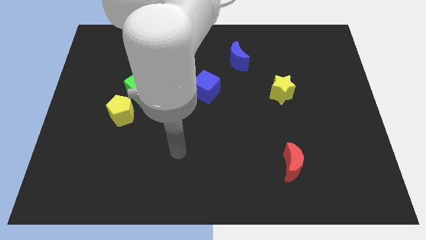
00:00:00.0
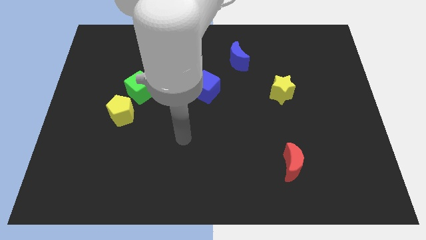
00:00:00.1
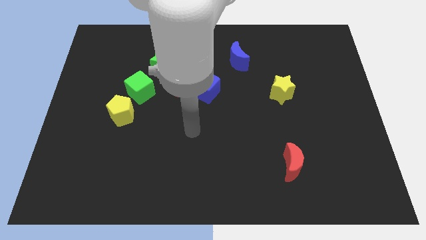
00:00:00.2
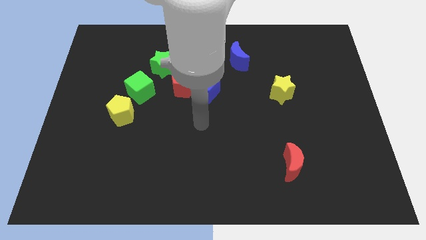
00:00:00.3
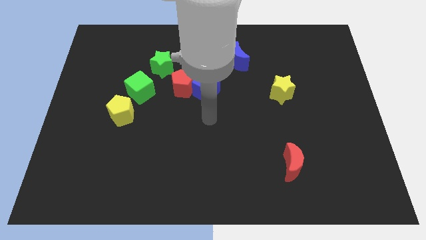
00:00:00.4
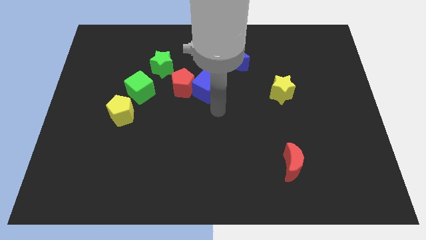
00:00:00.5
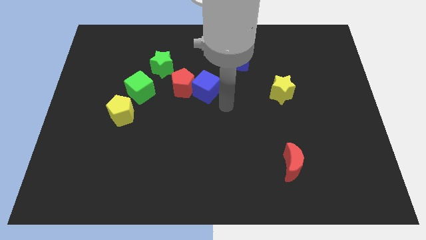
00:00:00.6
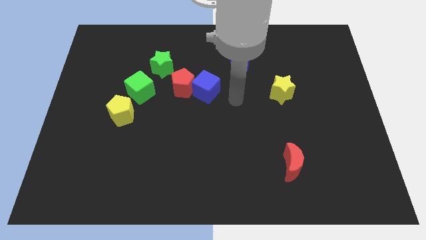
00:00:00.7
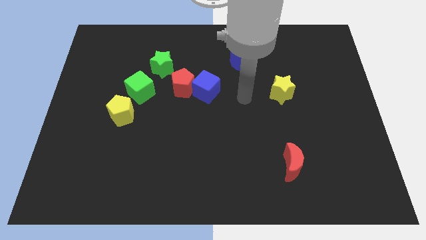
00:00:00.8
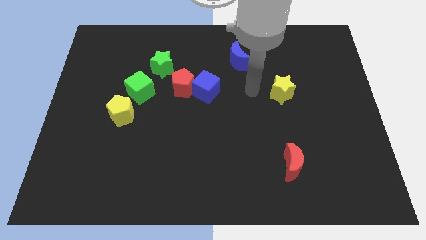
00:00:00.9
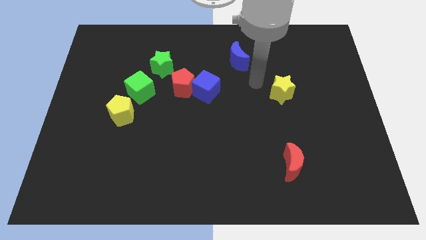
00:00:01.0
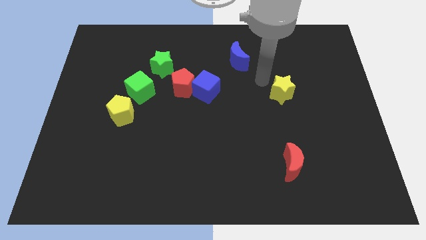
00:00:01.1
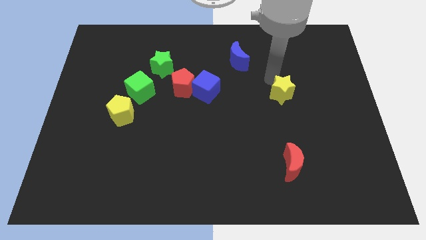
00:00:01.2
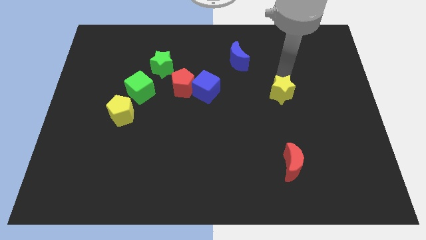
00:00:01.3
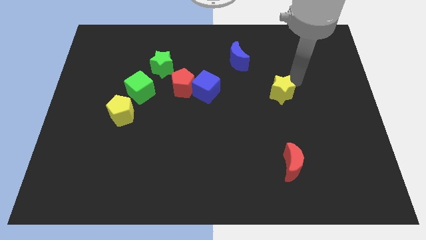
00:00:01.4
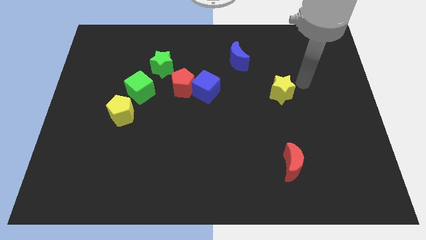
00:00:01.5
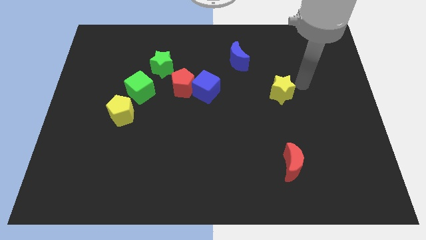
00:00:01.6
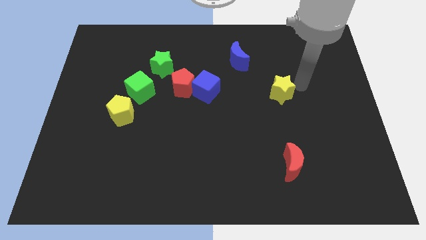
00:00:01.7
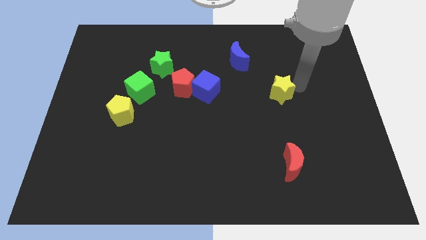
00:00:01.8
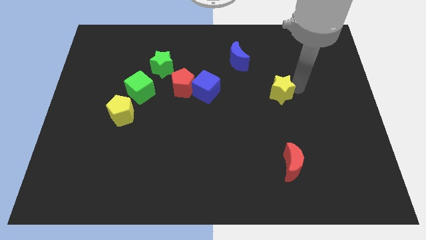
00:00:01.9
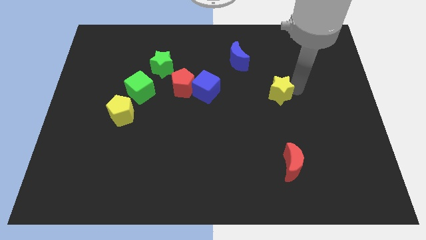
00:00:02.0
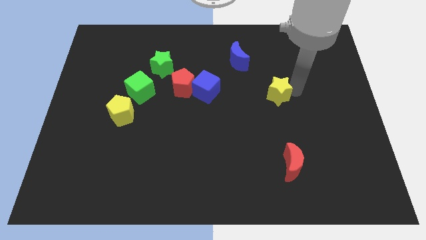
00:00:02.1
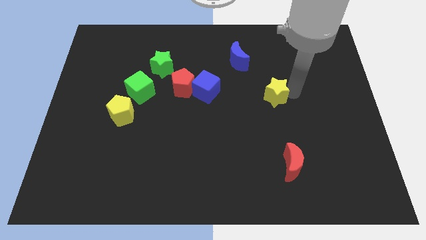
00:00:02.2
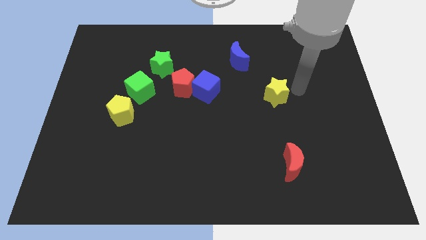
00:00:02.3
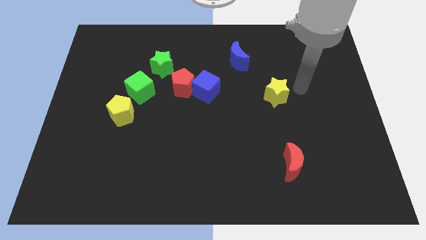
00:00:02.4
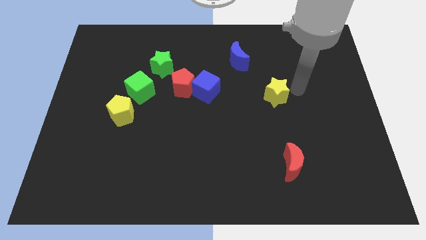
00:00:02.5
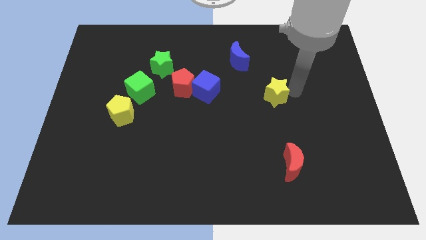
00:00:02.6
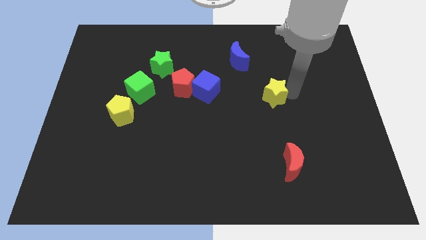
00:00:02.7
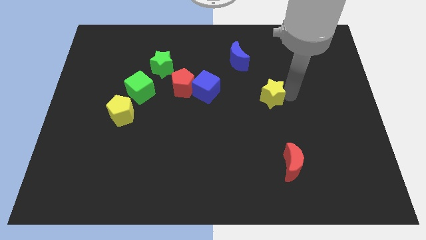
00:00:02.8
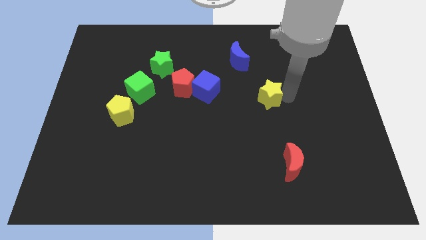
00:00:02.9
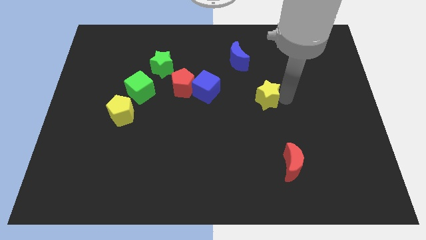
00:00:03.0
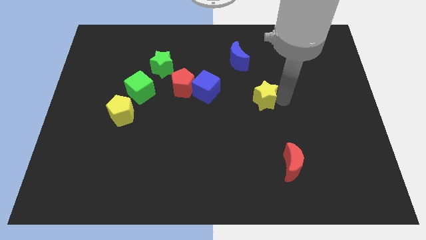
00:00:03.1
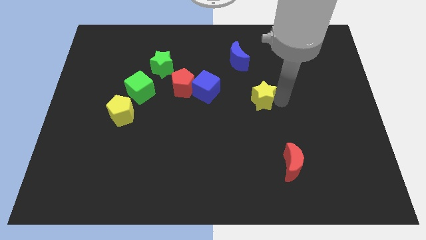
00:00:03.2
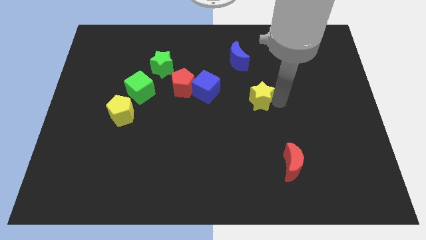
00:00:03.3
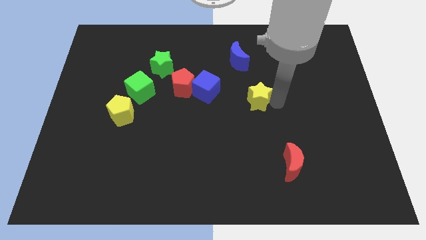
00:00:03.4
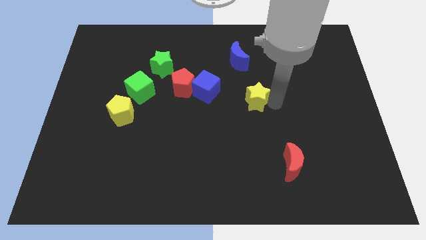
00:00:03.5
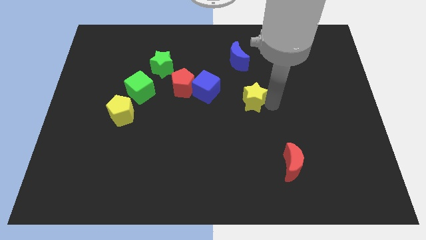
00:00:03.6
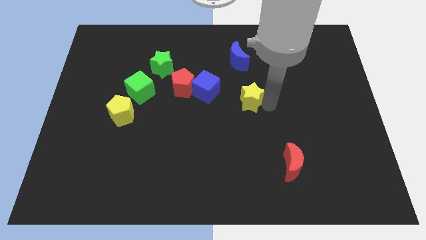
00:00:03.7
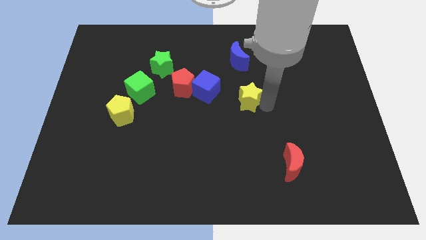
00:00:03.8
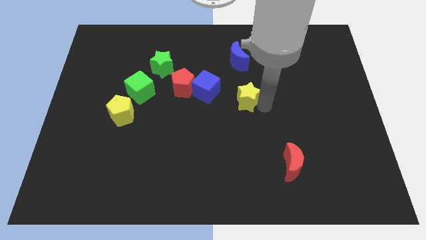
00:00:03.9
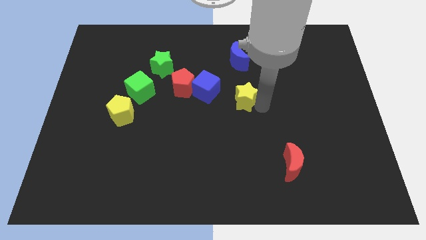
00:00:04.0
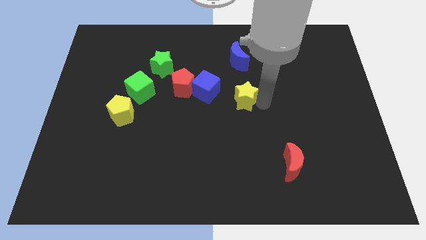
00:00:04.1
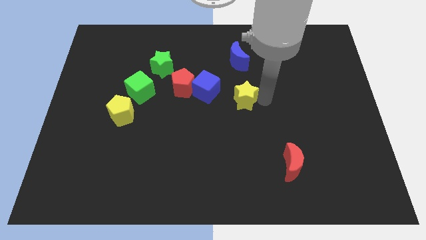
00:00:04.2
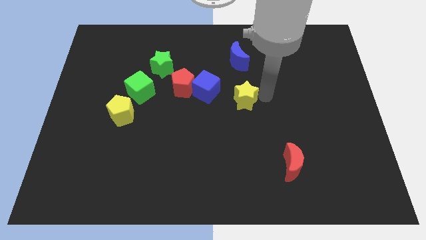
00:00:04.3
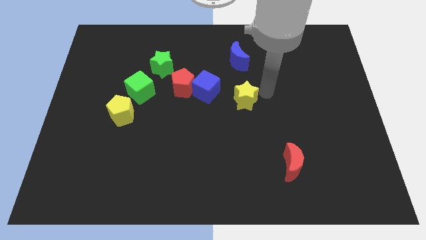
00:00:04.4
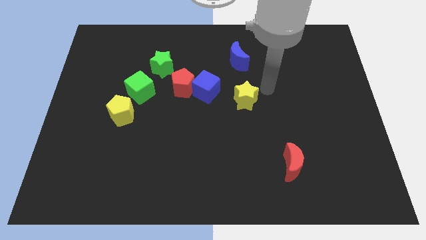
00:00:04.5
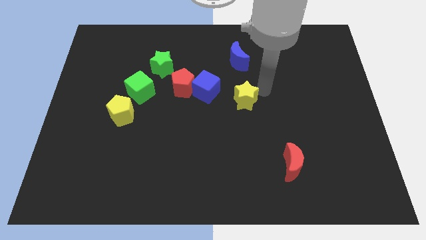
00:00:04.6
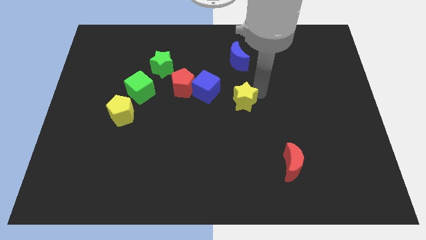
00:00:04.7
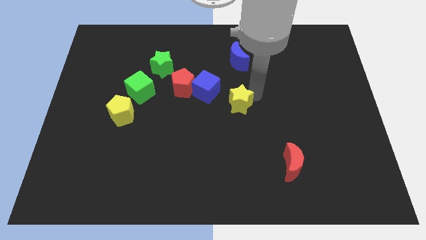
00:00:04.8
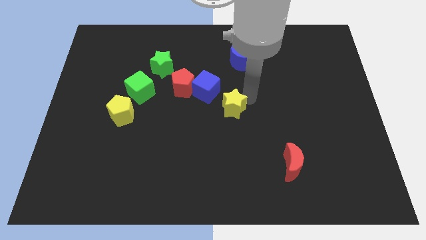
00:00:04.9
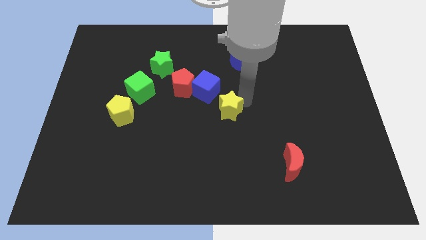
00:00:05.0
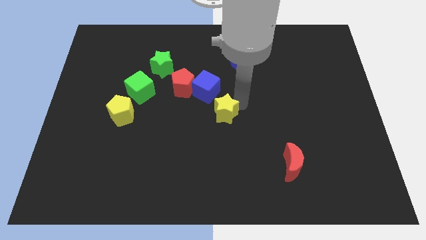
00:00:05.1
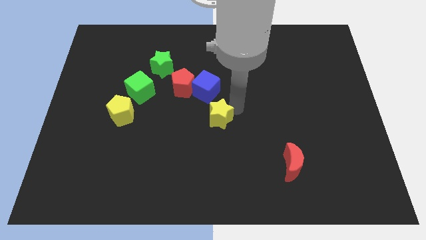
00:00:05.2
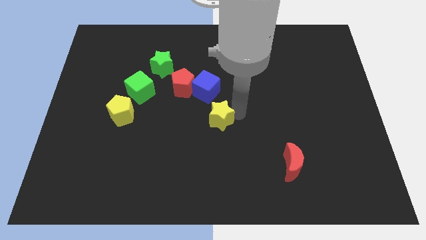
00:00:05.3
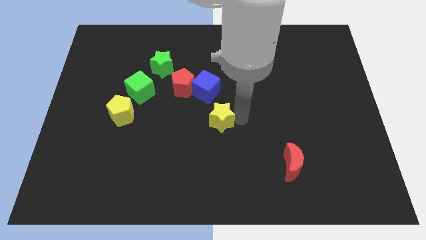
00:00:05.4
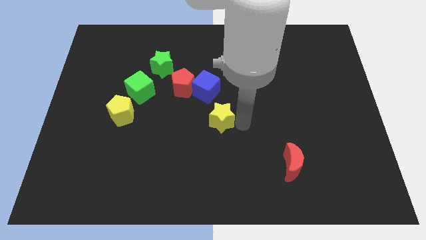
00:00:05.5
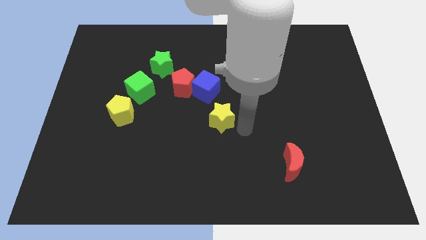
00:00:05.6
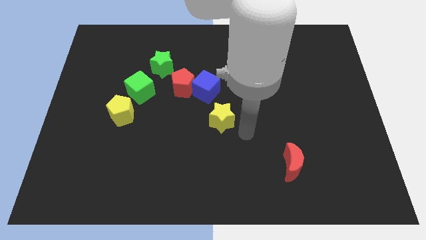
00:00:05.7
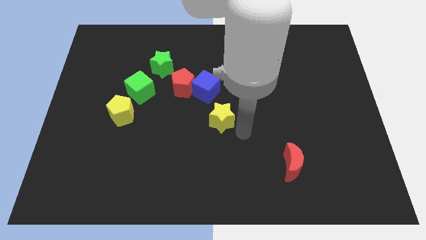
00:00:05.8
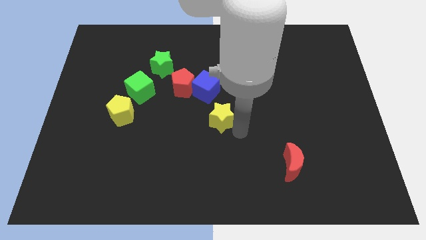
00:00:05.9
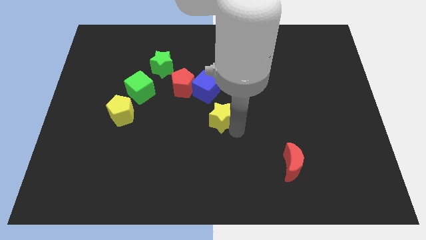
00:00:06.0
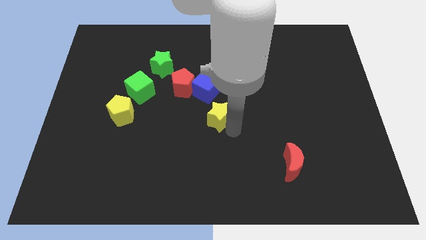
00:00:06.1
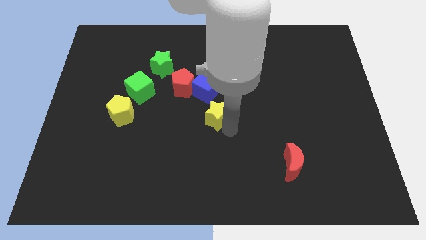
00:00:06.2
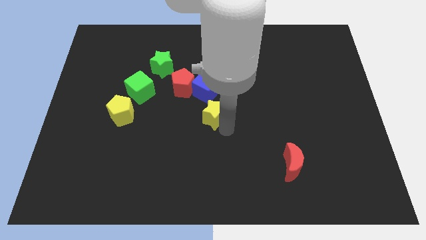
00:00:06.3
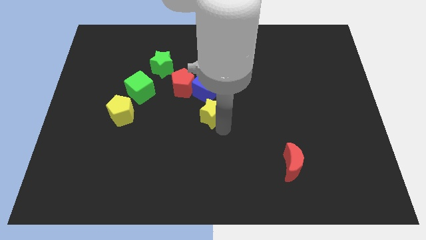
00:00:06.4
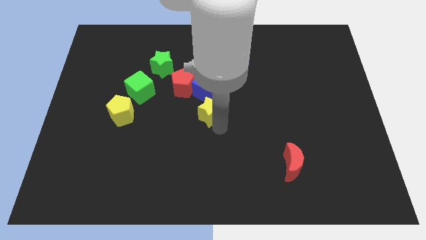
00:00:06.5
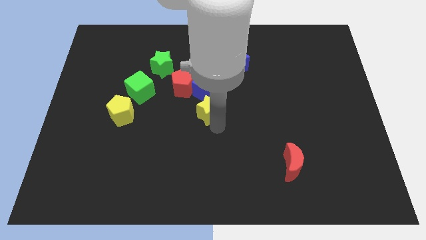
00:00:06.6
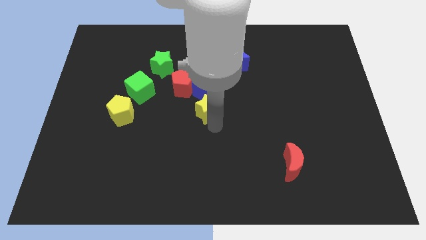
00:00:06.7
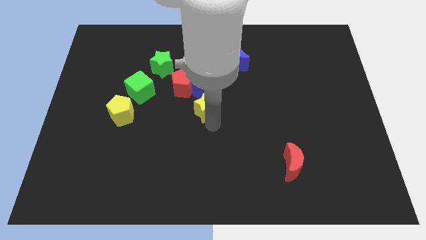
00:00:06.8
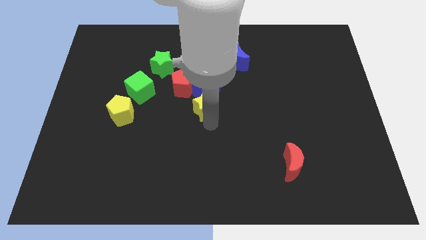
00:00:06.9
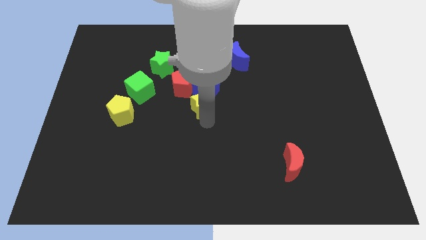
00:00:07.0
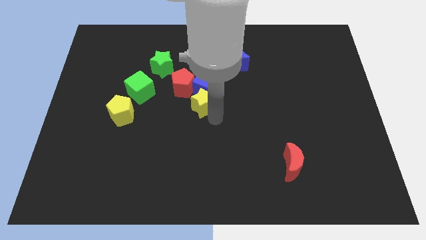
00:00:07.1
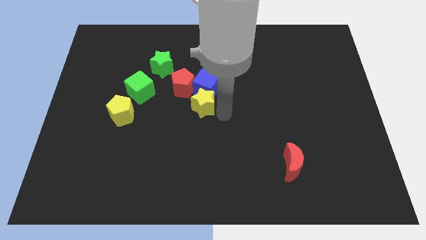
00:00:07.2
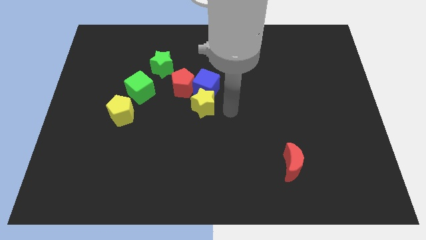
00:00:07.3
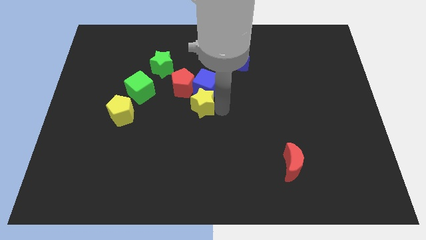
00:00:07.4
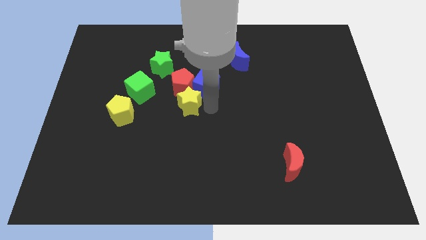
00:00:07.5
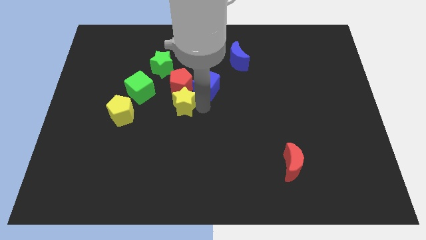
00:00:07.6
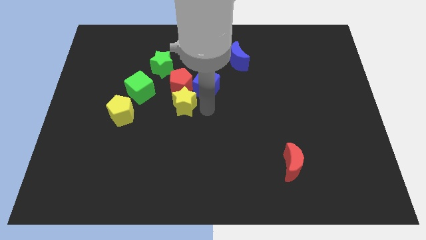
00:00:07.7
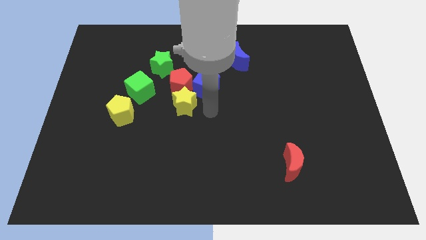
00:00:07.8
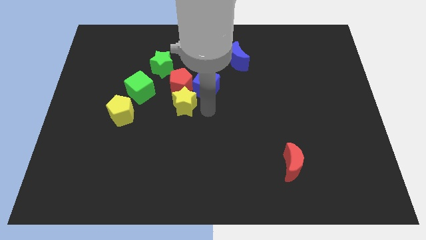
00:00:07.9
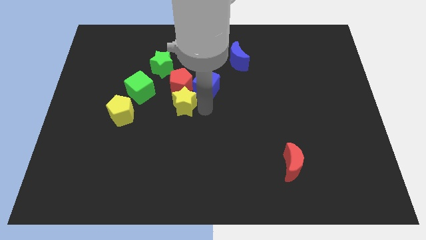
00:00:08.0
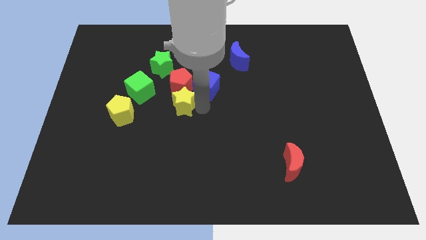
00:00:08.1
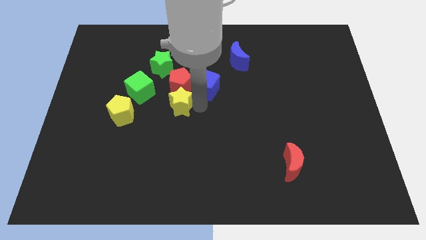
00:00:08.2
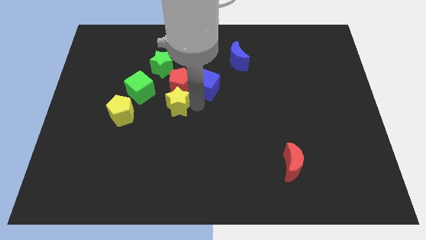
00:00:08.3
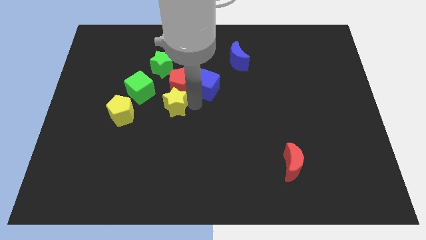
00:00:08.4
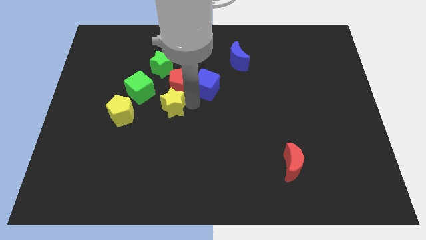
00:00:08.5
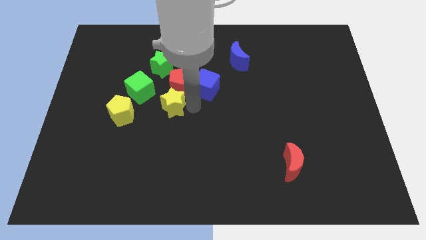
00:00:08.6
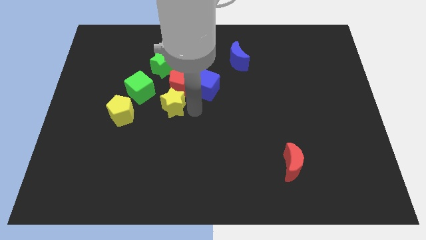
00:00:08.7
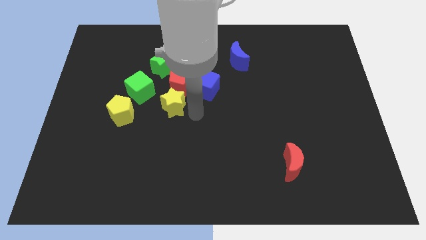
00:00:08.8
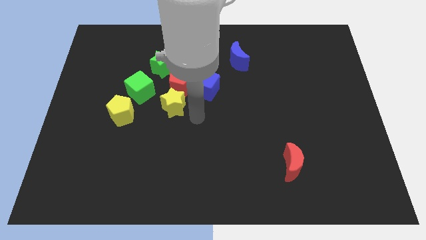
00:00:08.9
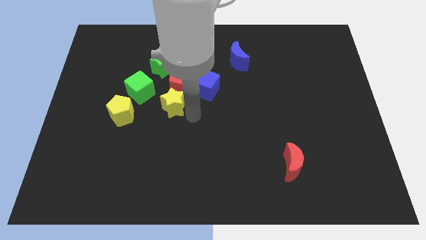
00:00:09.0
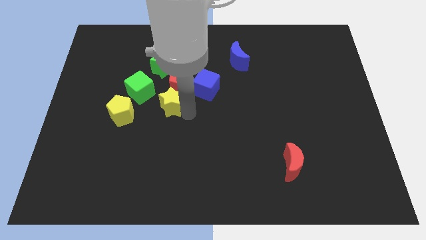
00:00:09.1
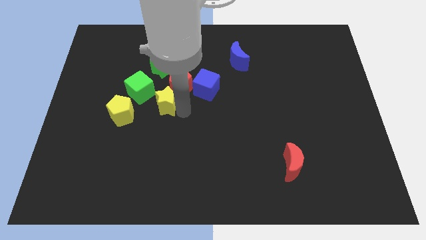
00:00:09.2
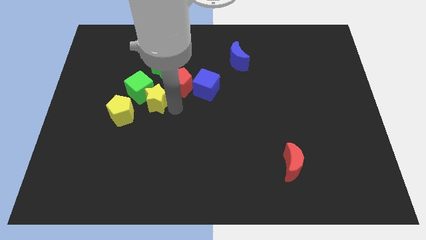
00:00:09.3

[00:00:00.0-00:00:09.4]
move the yellow star to the green cube
